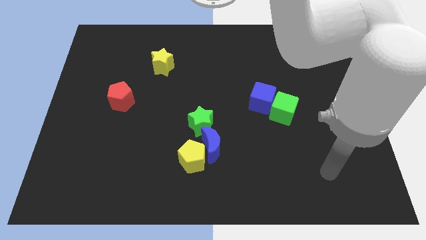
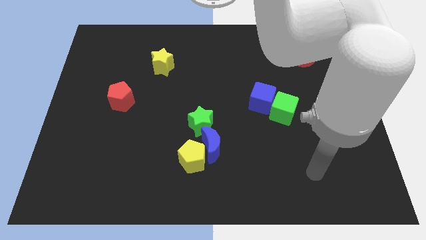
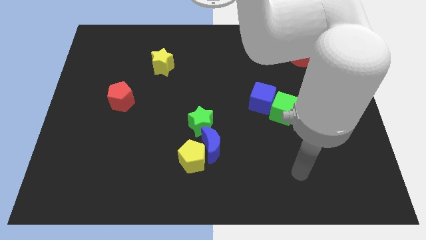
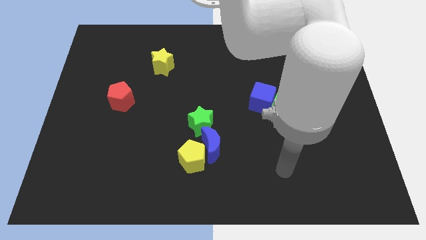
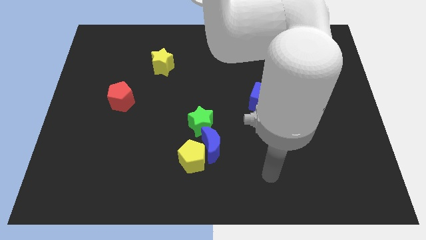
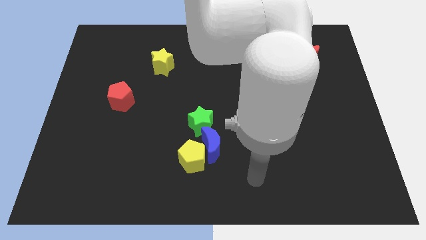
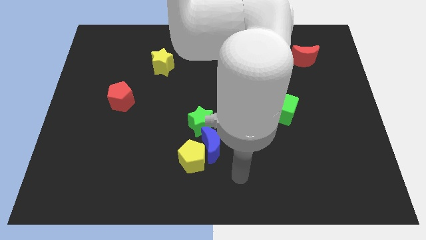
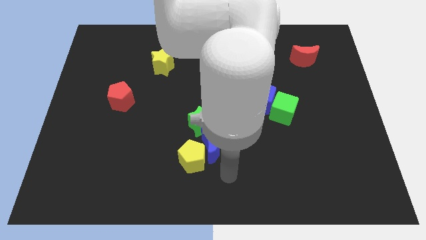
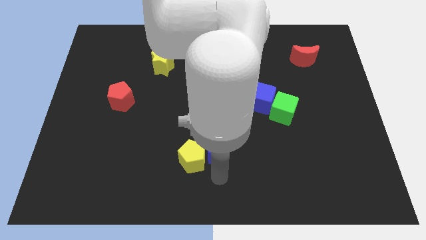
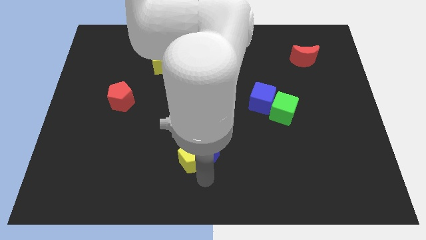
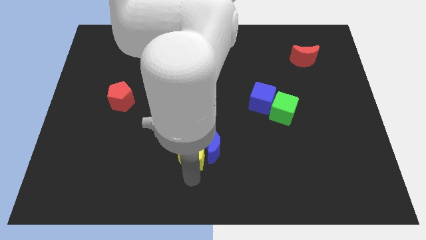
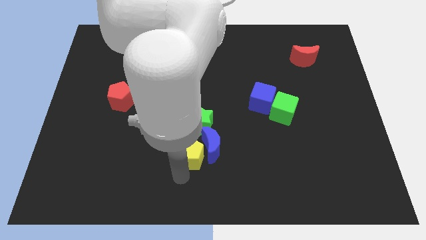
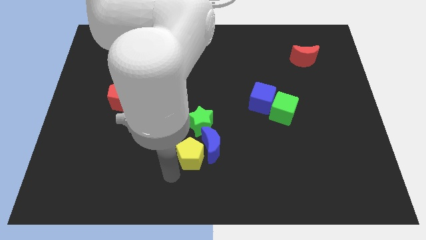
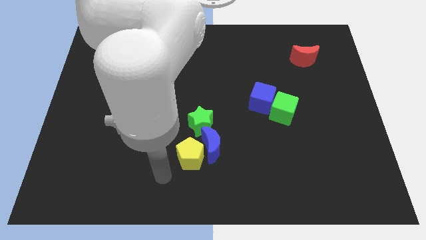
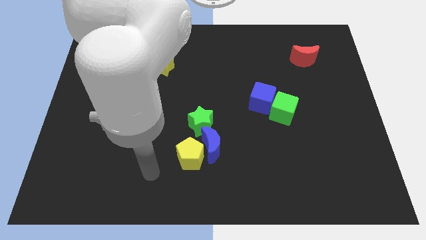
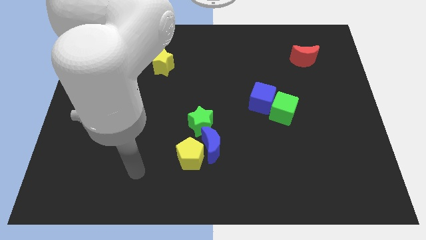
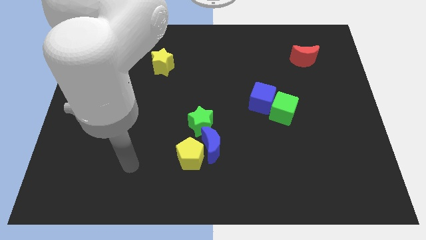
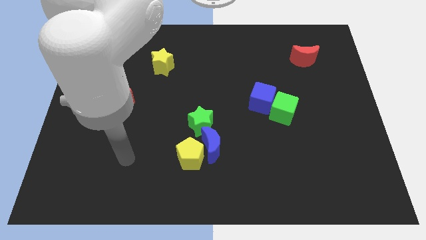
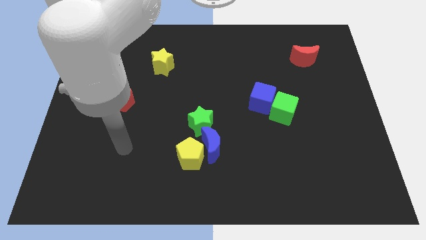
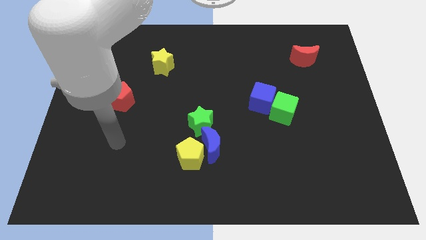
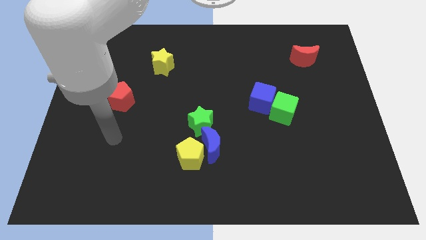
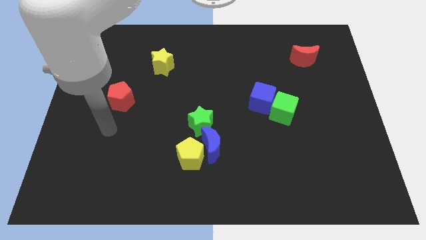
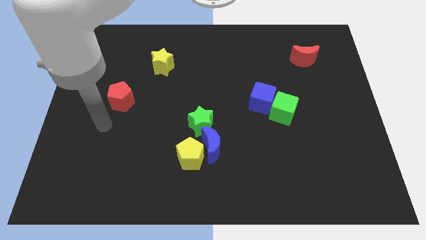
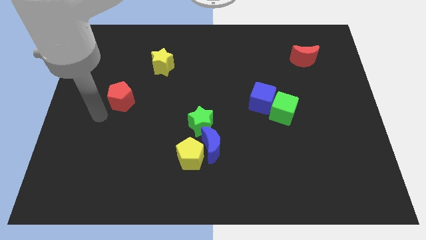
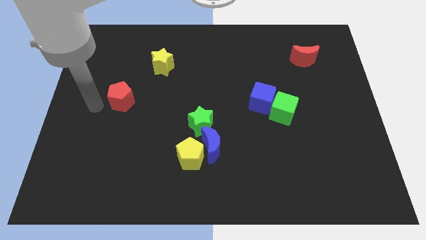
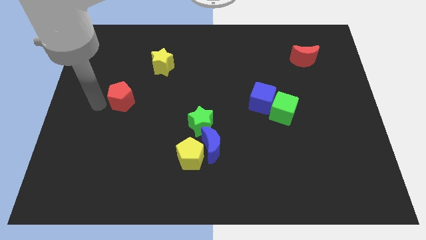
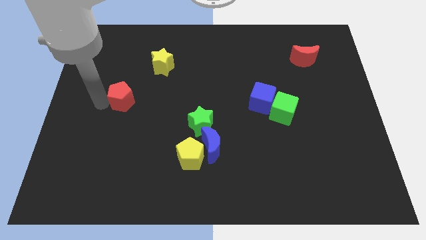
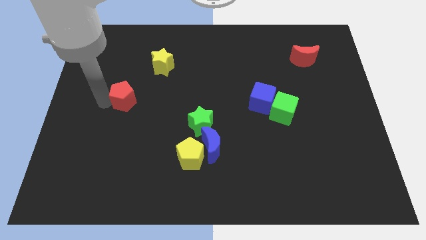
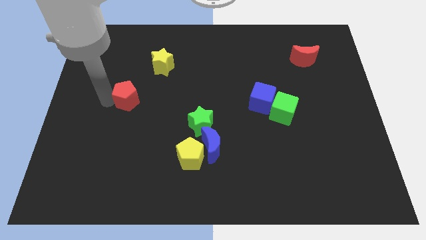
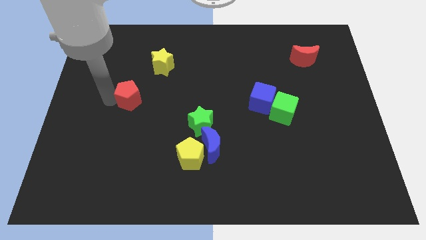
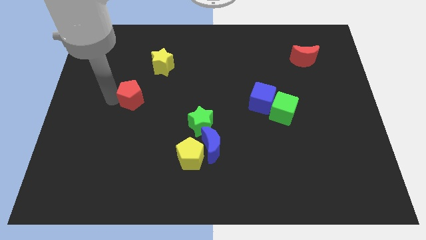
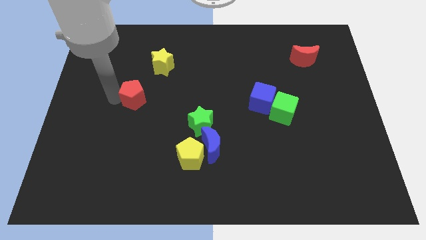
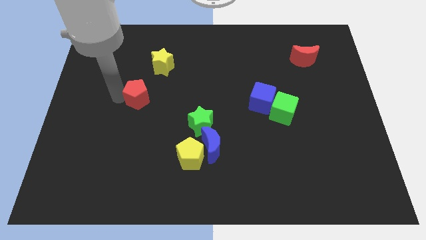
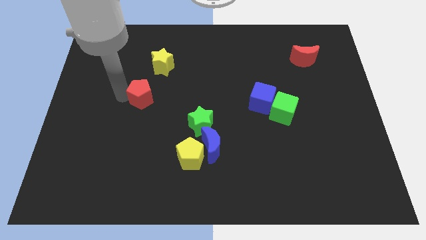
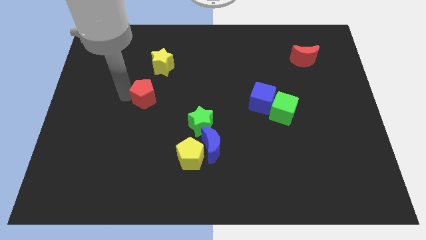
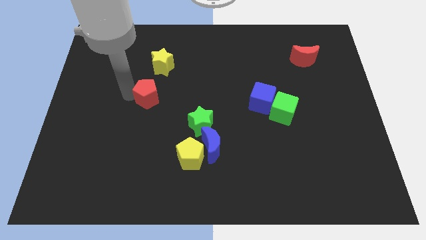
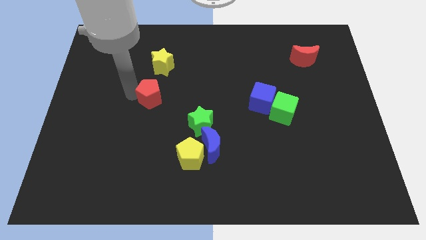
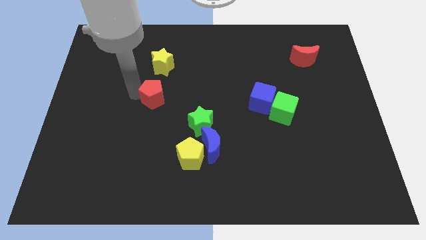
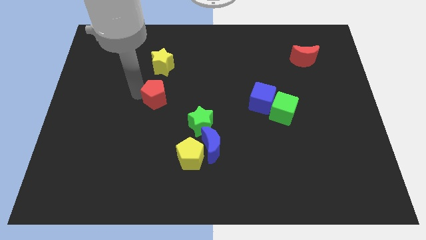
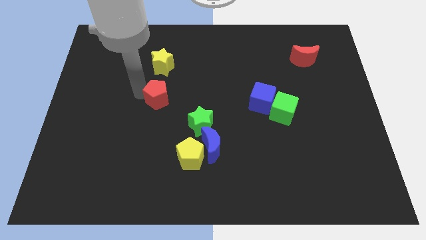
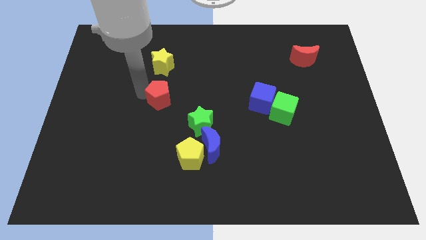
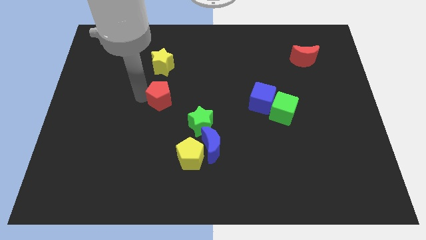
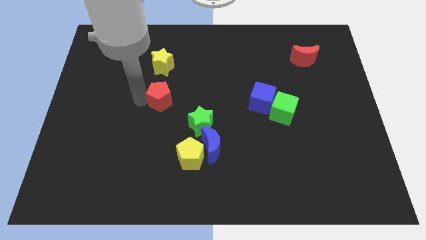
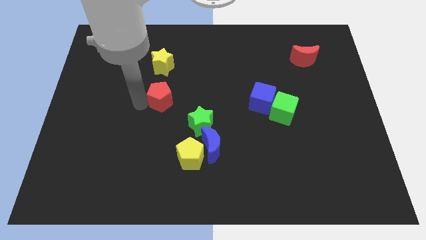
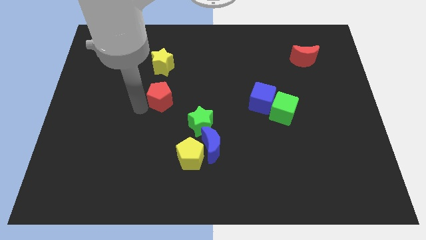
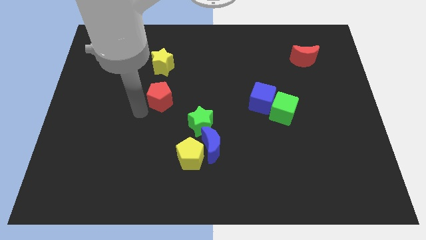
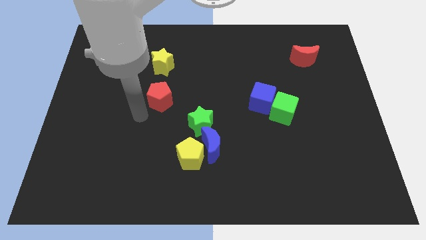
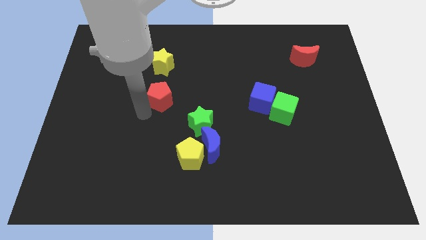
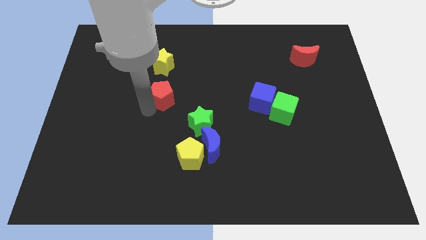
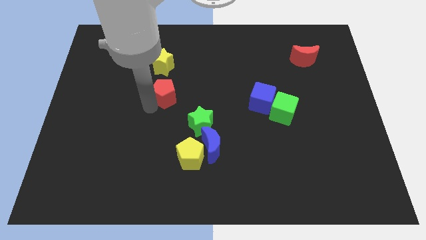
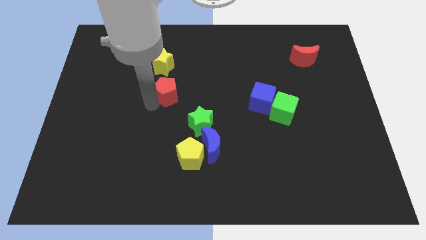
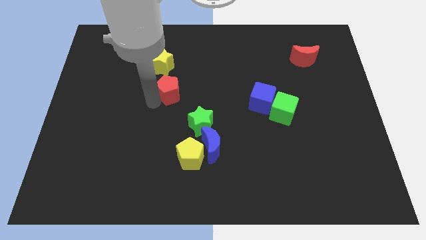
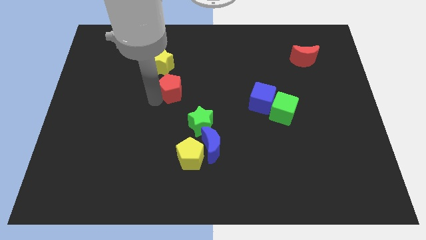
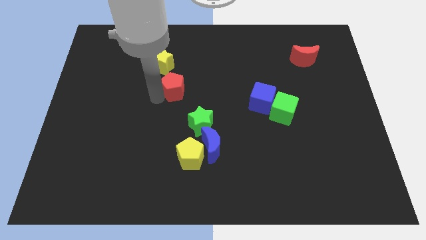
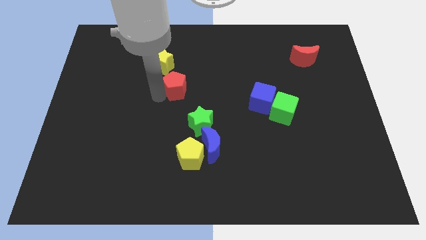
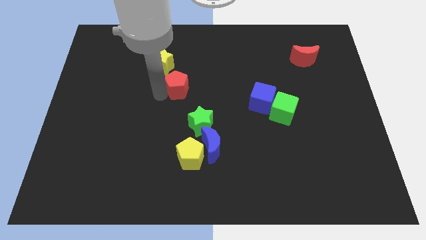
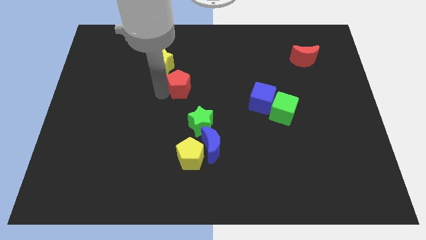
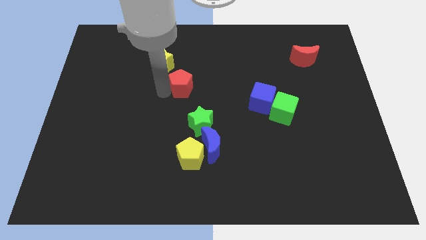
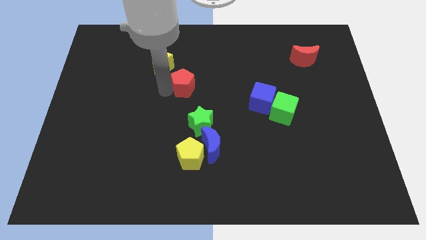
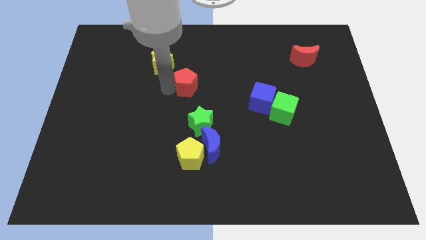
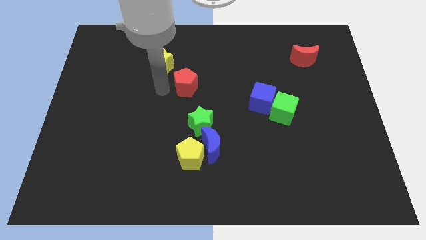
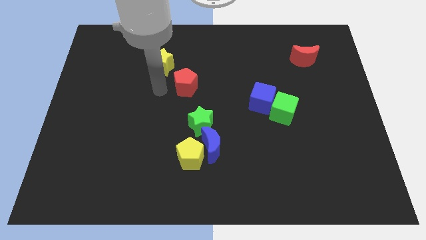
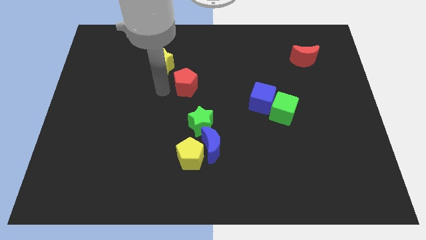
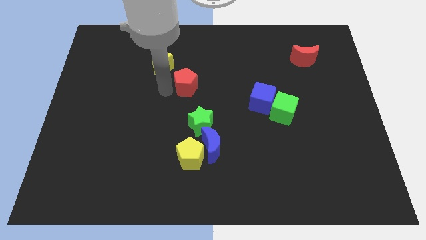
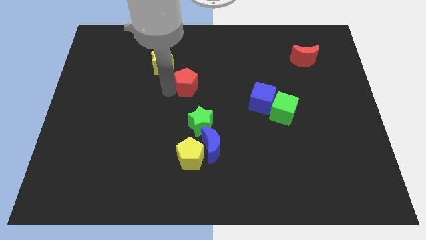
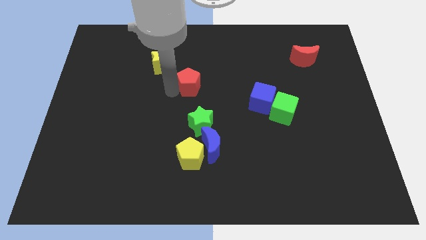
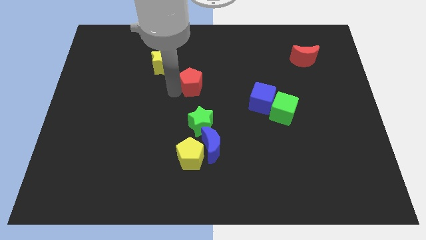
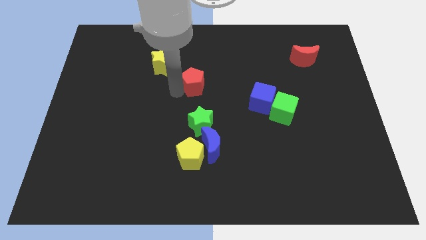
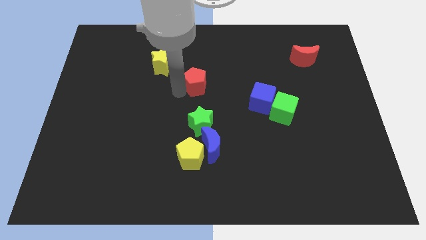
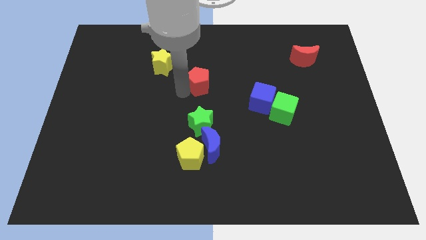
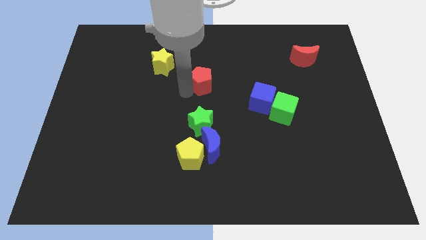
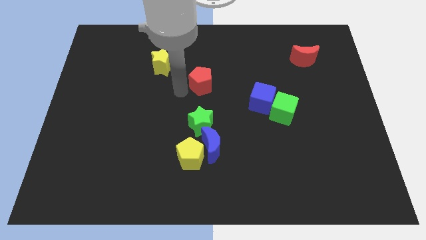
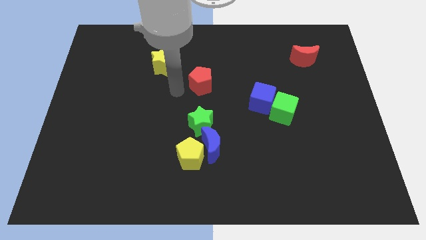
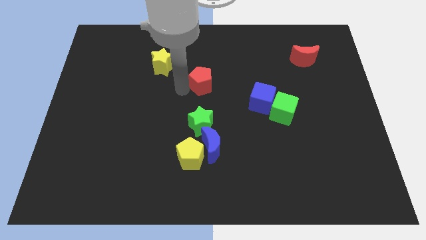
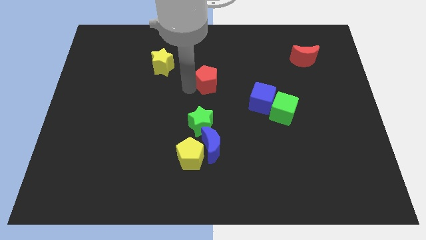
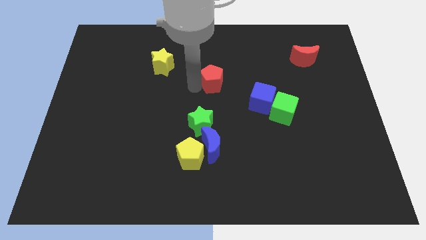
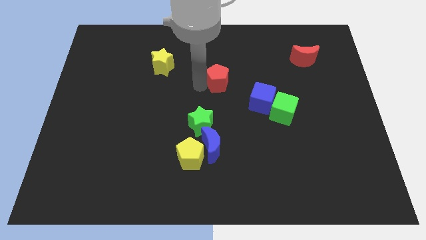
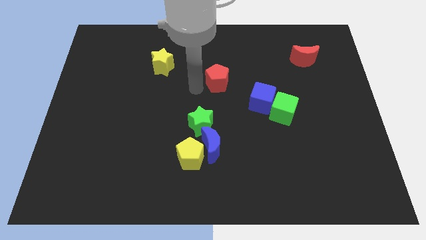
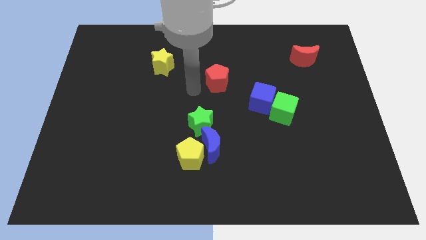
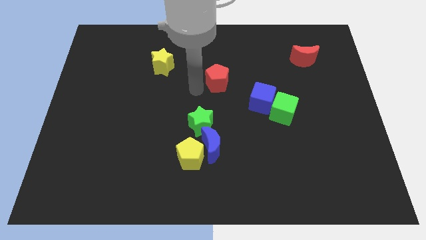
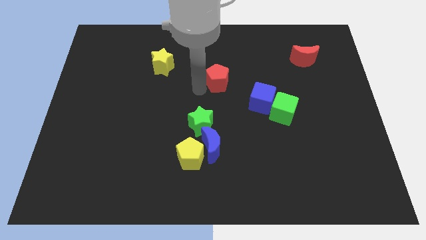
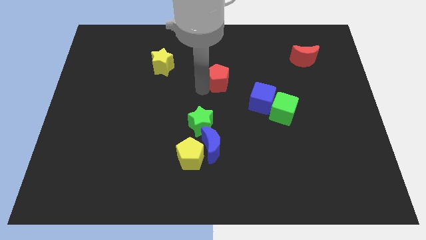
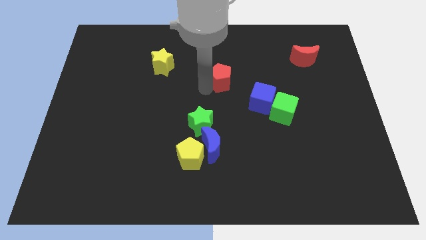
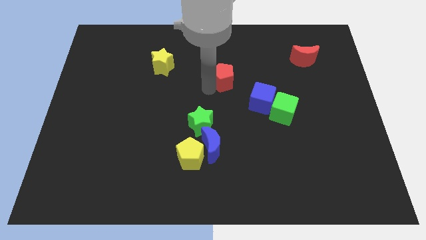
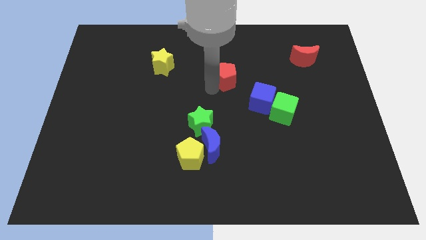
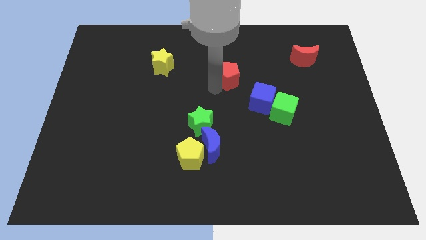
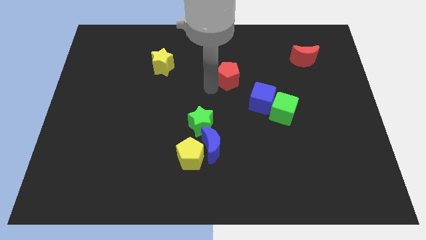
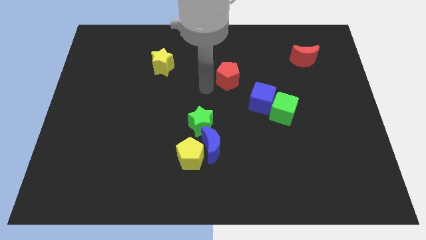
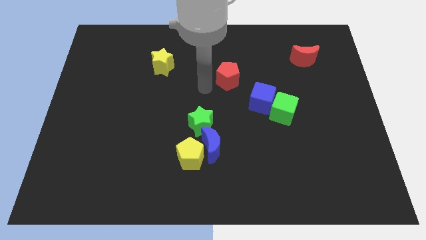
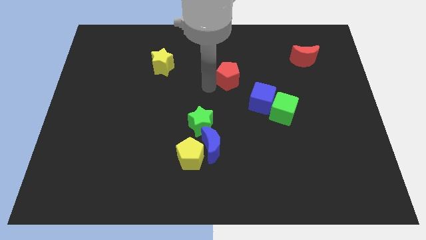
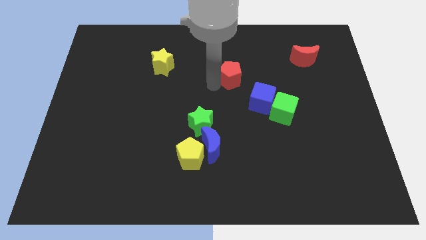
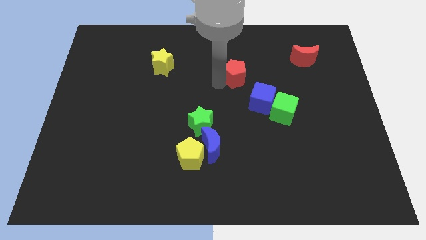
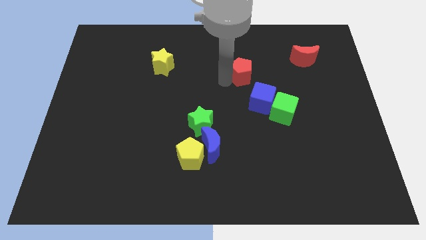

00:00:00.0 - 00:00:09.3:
move the red pentagon above the blue cube
